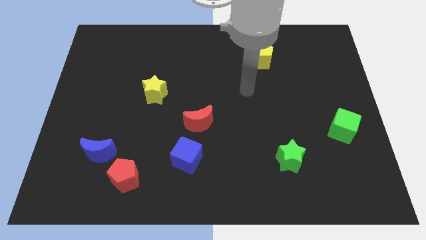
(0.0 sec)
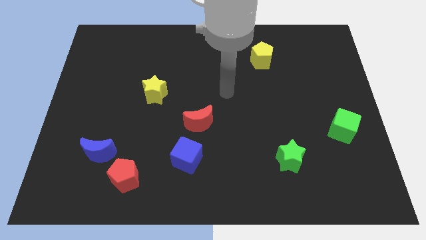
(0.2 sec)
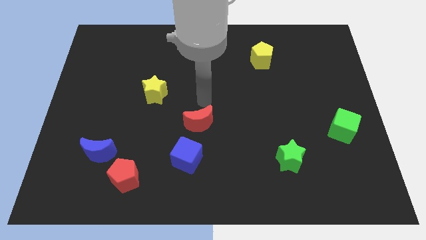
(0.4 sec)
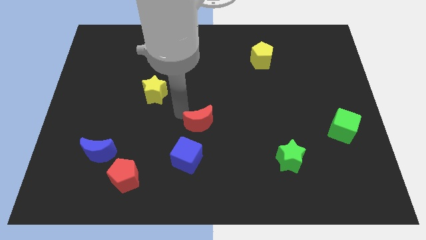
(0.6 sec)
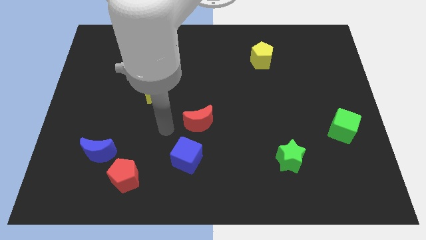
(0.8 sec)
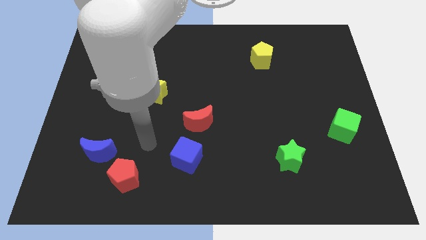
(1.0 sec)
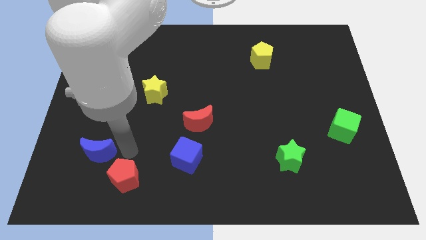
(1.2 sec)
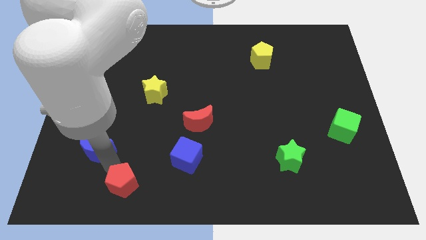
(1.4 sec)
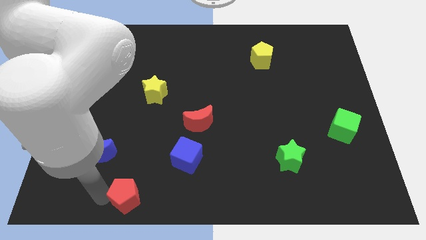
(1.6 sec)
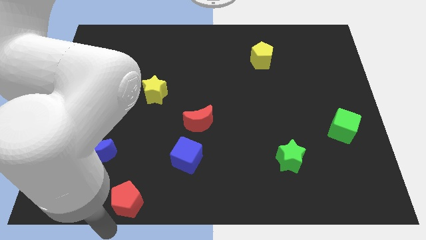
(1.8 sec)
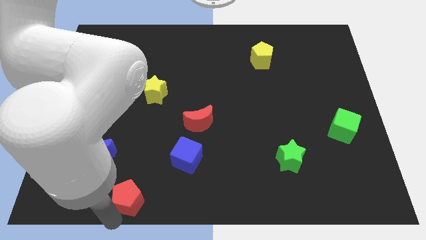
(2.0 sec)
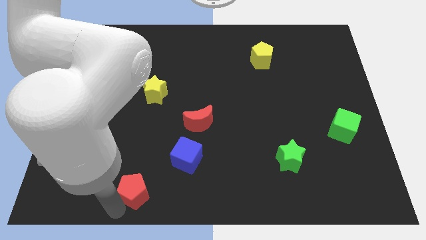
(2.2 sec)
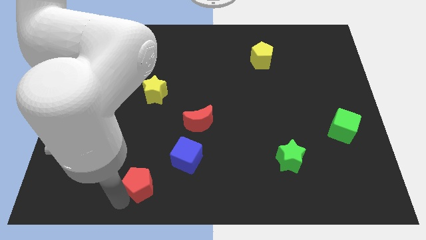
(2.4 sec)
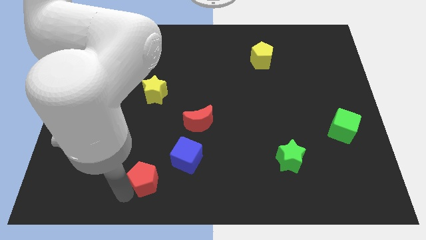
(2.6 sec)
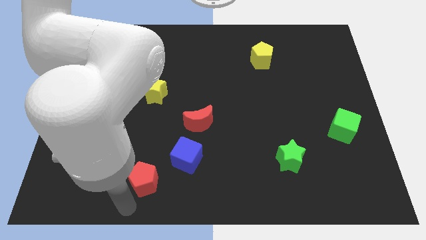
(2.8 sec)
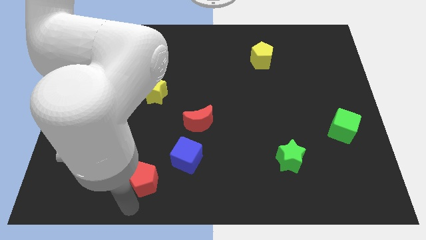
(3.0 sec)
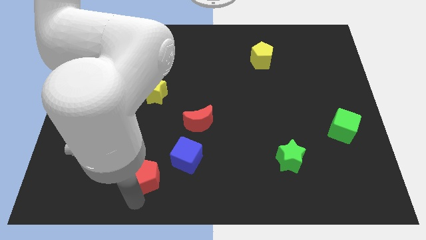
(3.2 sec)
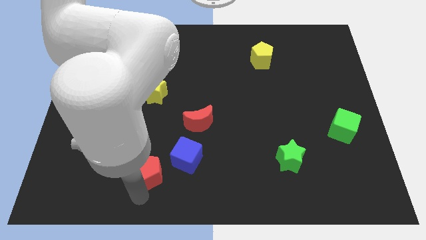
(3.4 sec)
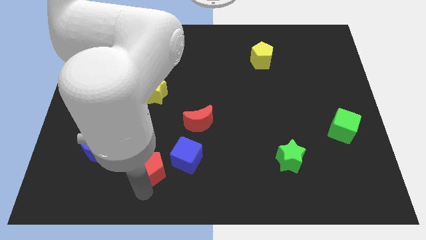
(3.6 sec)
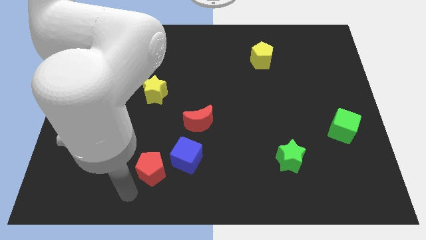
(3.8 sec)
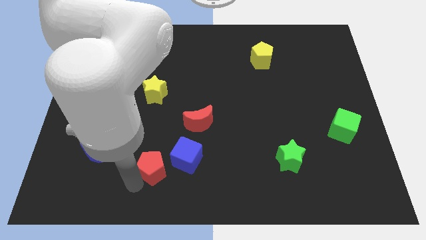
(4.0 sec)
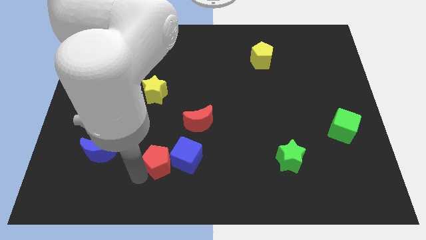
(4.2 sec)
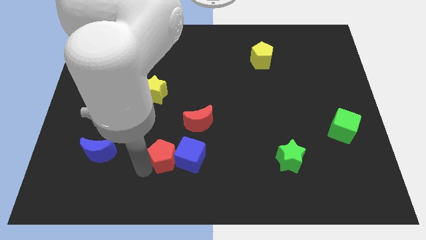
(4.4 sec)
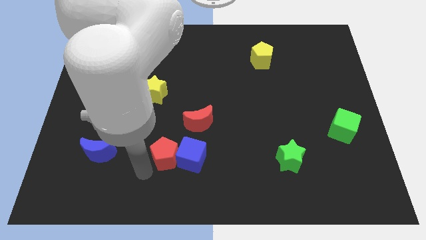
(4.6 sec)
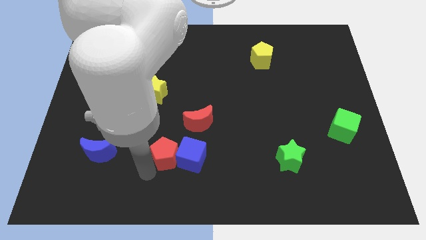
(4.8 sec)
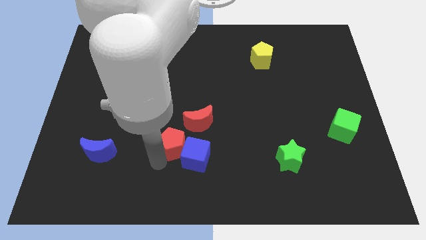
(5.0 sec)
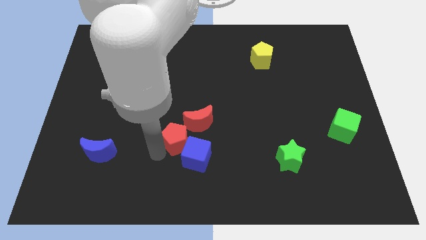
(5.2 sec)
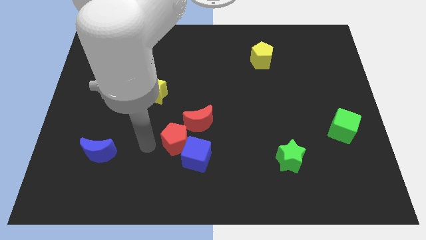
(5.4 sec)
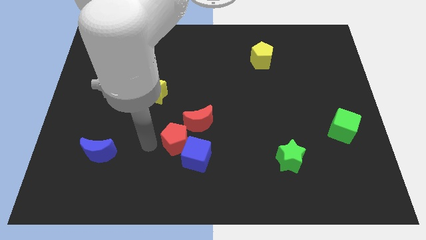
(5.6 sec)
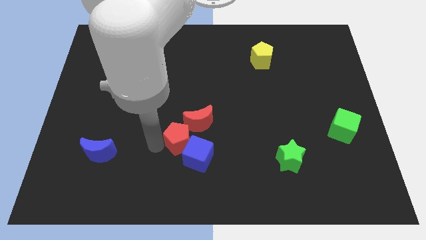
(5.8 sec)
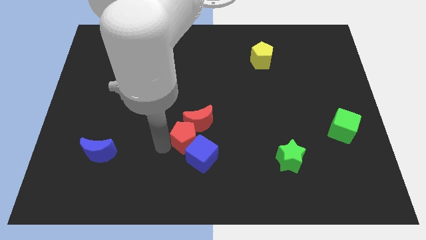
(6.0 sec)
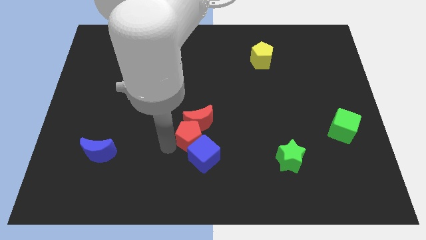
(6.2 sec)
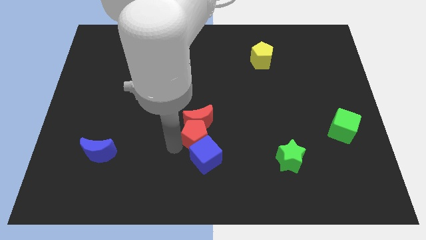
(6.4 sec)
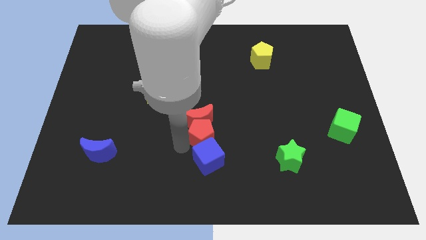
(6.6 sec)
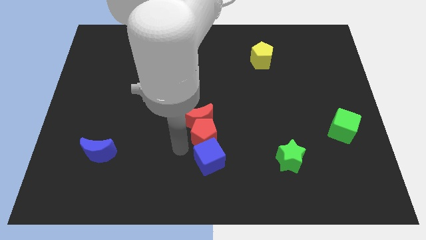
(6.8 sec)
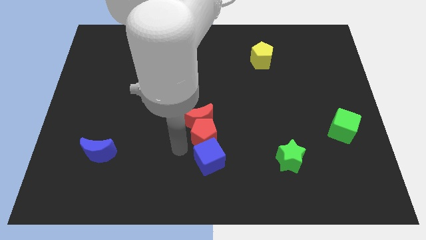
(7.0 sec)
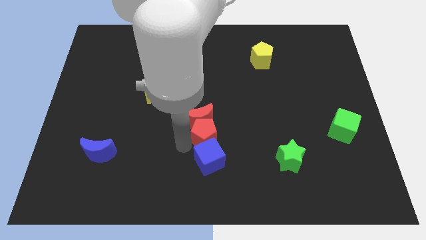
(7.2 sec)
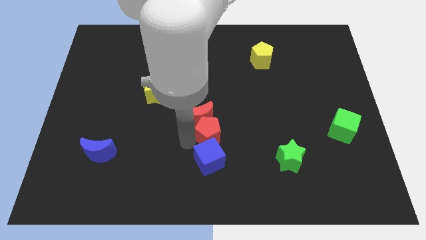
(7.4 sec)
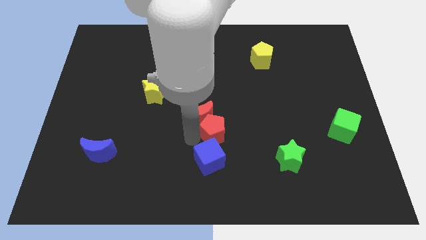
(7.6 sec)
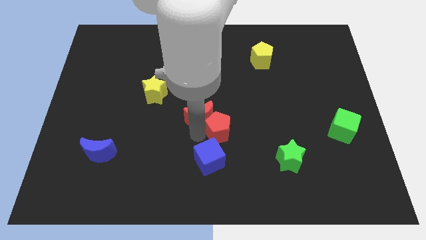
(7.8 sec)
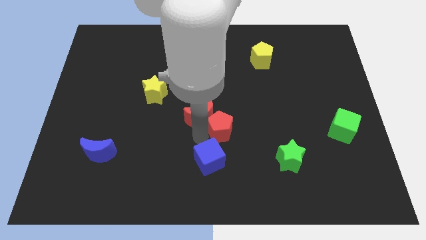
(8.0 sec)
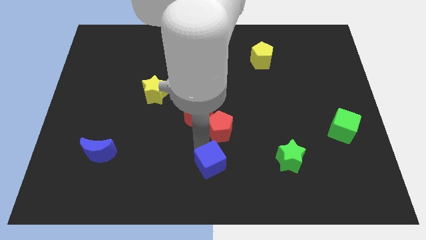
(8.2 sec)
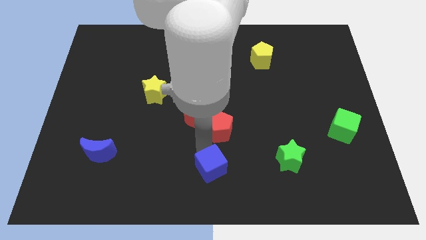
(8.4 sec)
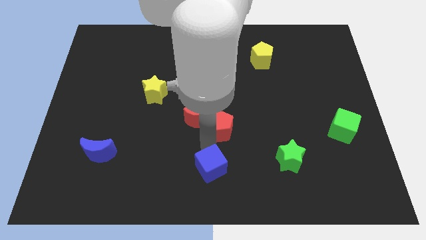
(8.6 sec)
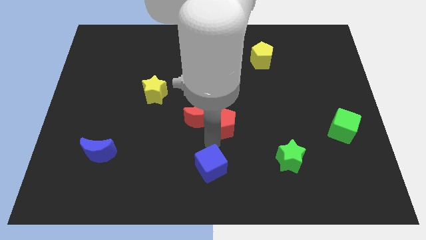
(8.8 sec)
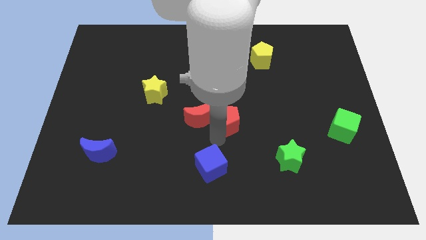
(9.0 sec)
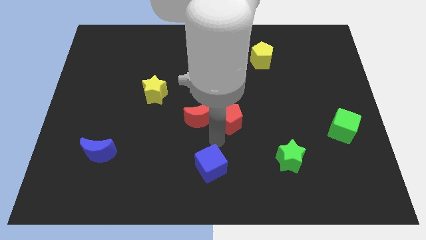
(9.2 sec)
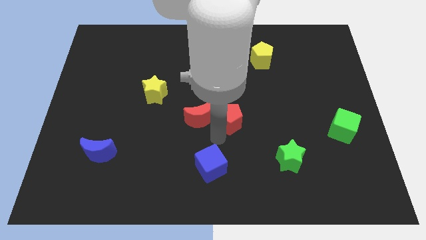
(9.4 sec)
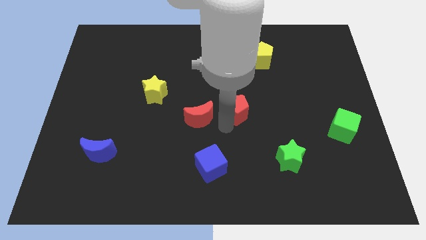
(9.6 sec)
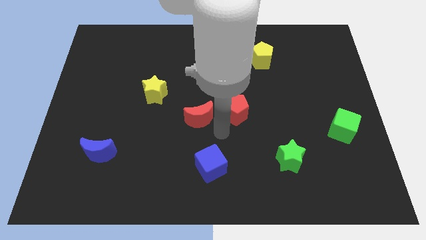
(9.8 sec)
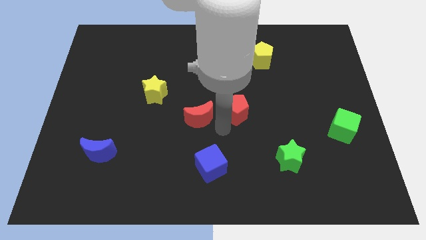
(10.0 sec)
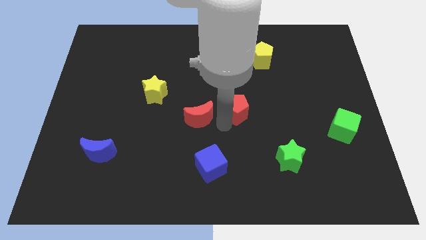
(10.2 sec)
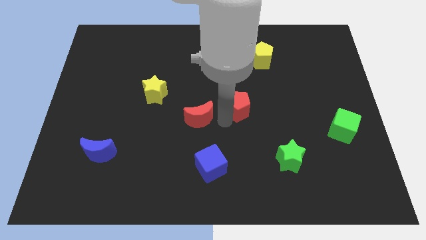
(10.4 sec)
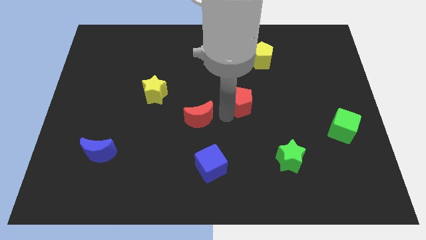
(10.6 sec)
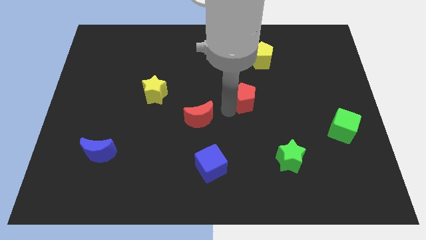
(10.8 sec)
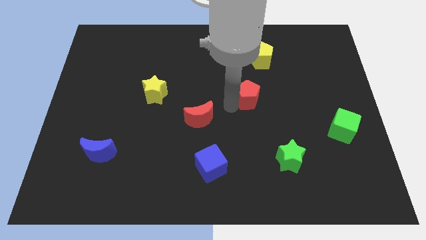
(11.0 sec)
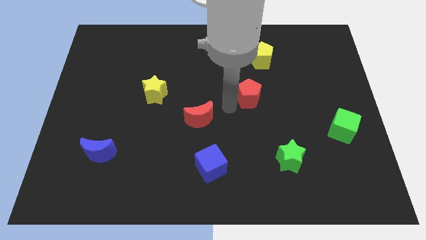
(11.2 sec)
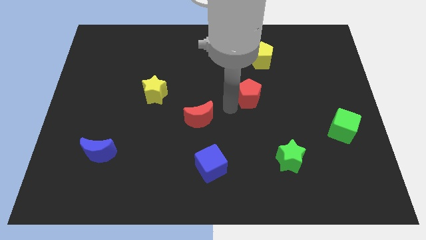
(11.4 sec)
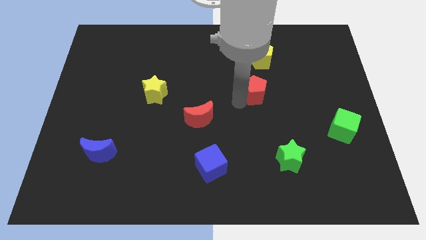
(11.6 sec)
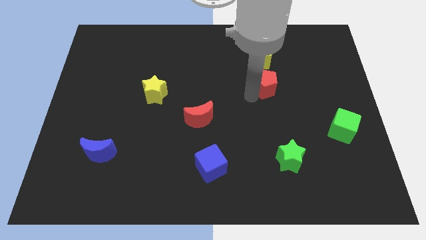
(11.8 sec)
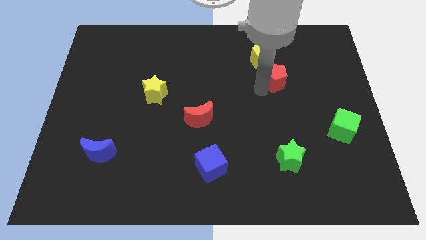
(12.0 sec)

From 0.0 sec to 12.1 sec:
put the red pentagon to the bottom right of the yellow pentagon

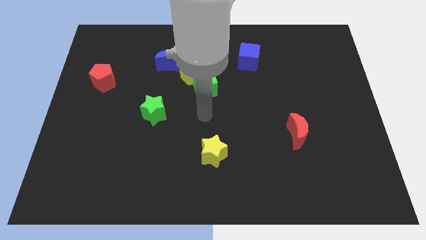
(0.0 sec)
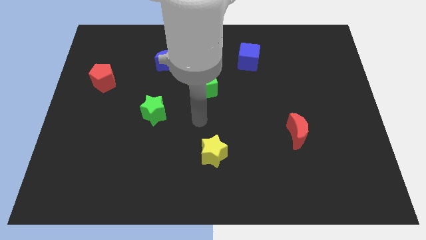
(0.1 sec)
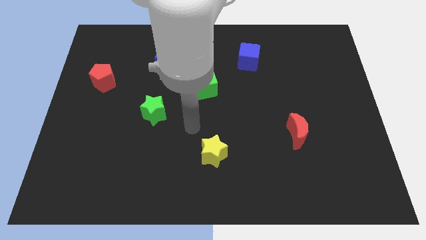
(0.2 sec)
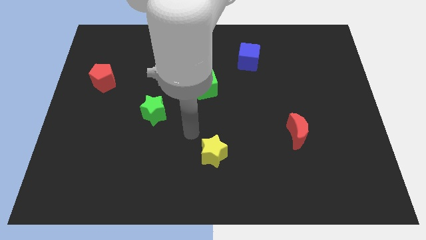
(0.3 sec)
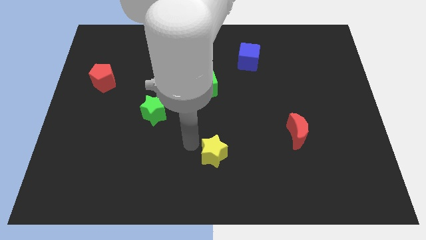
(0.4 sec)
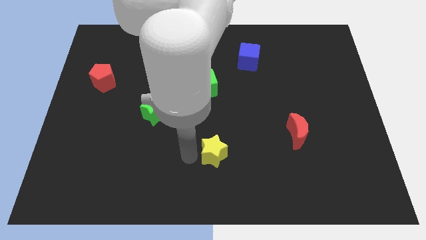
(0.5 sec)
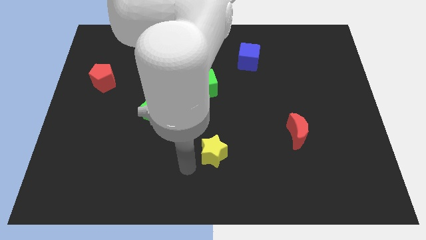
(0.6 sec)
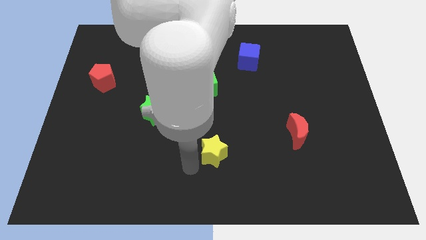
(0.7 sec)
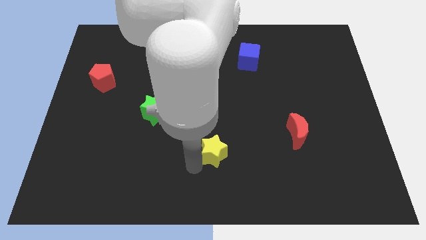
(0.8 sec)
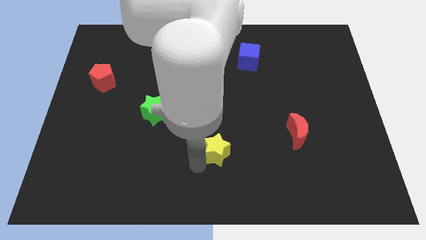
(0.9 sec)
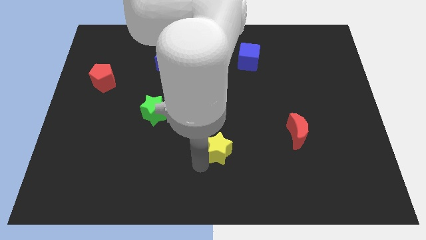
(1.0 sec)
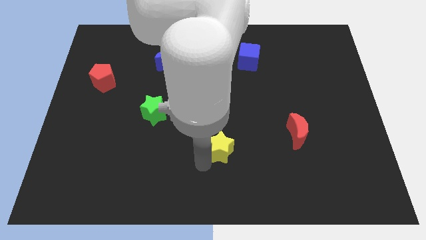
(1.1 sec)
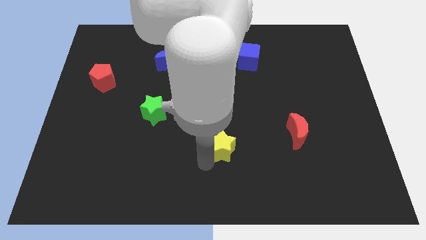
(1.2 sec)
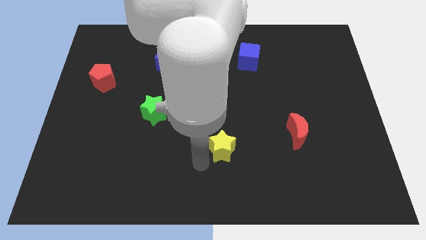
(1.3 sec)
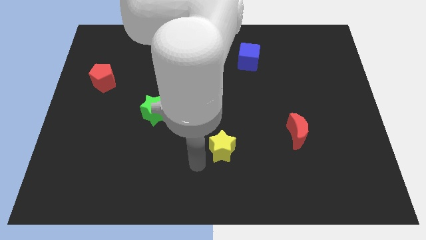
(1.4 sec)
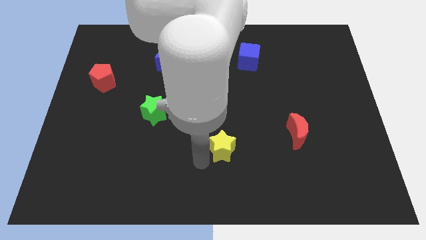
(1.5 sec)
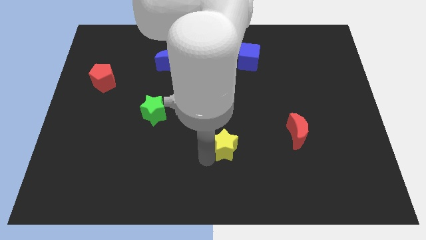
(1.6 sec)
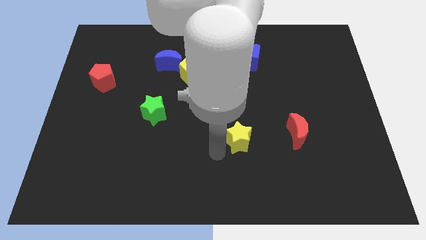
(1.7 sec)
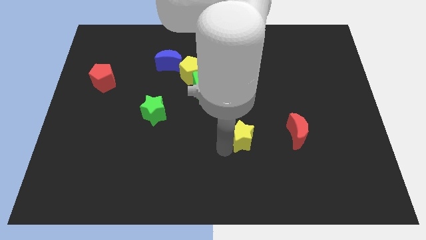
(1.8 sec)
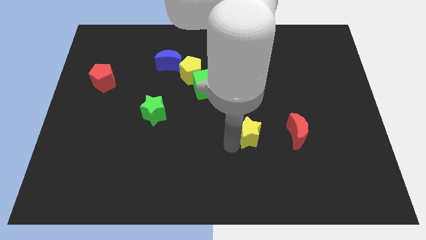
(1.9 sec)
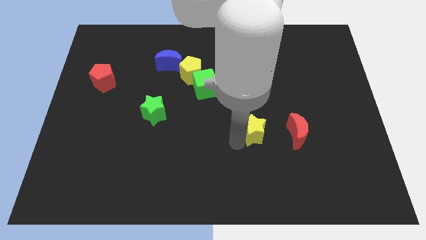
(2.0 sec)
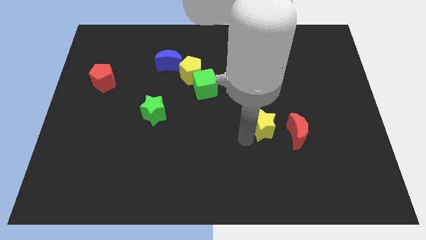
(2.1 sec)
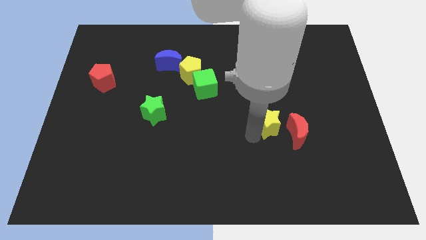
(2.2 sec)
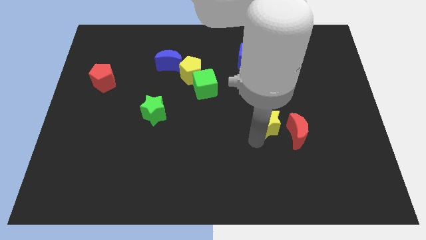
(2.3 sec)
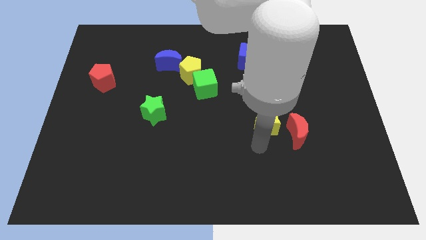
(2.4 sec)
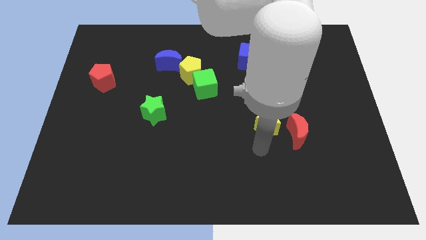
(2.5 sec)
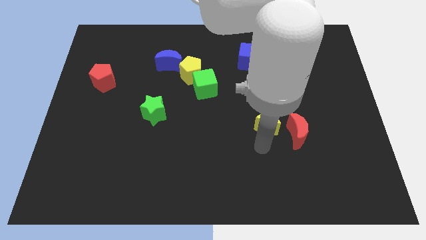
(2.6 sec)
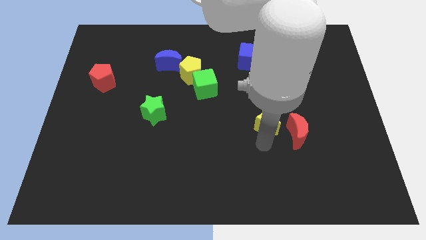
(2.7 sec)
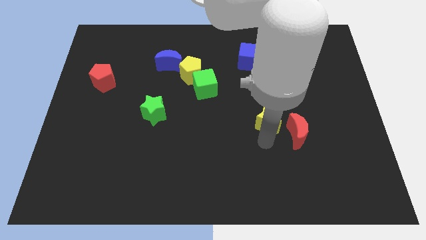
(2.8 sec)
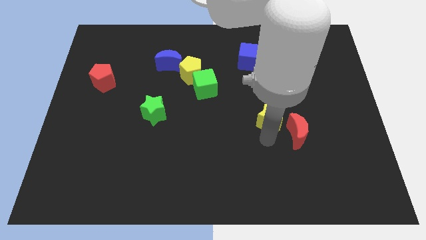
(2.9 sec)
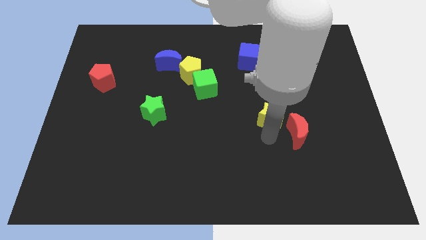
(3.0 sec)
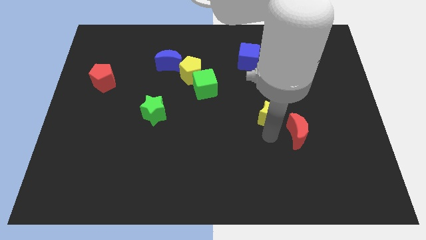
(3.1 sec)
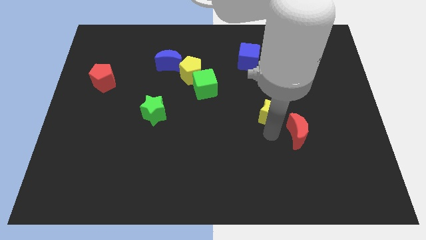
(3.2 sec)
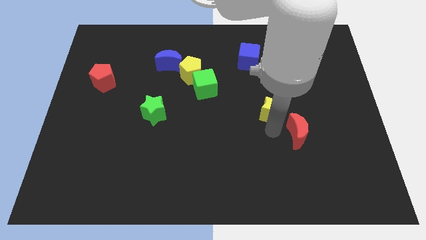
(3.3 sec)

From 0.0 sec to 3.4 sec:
slide the yellow star above the red moon
